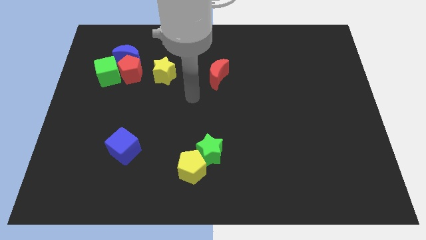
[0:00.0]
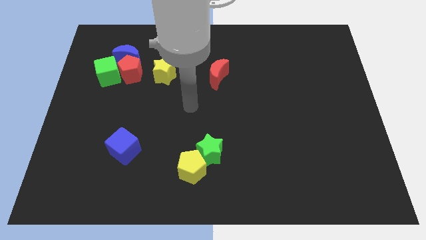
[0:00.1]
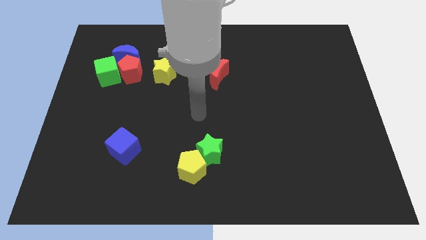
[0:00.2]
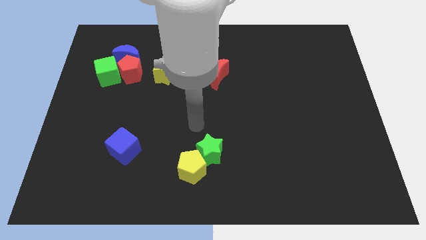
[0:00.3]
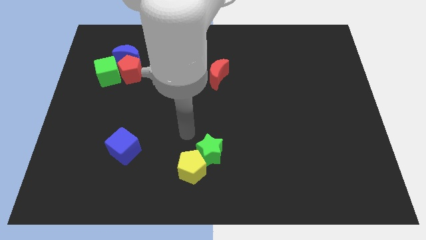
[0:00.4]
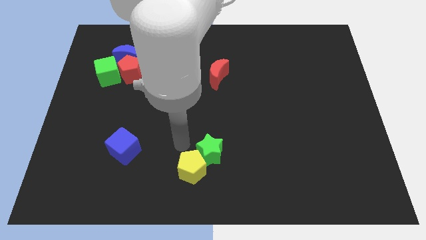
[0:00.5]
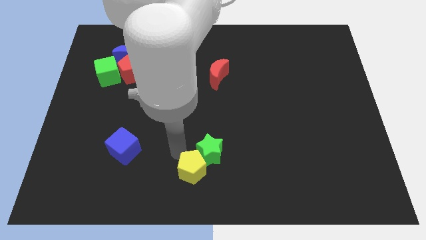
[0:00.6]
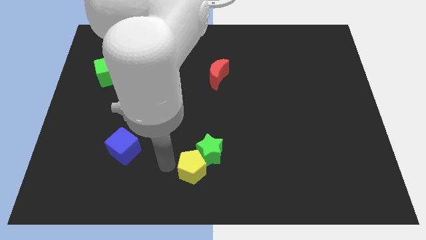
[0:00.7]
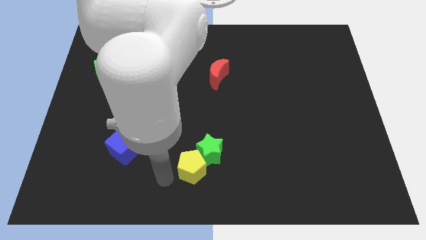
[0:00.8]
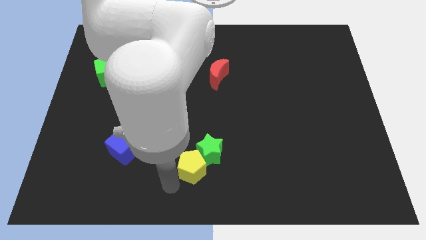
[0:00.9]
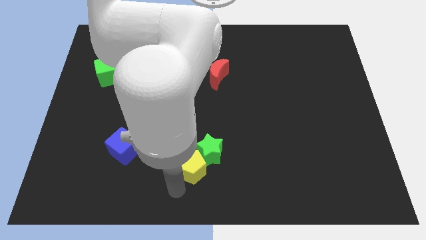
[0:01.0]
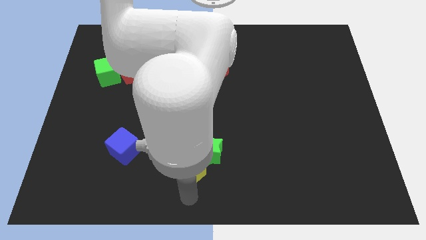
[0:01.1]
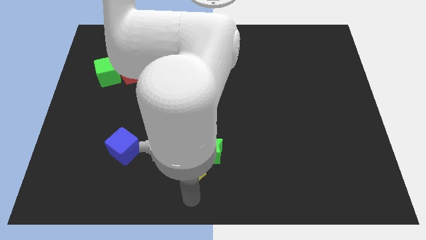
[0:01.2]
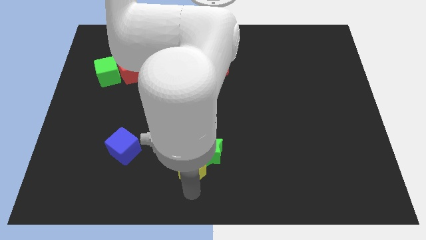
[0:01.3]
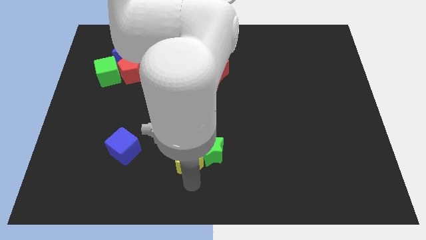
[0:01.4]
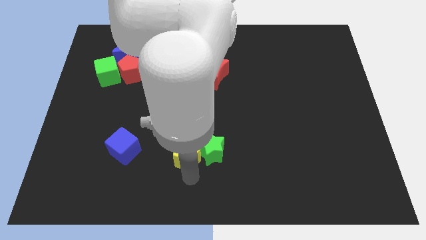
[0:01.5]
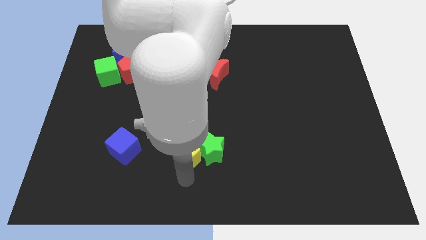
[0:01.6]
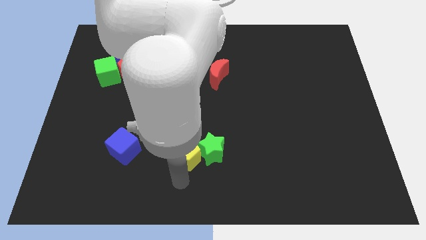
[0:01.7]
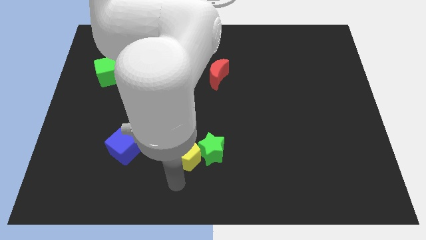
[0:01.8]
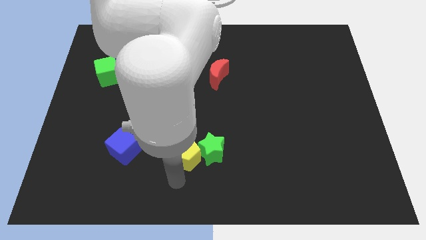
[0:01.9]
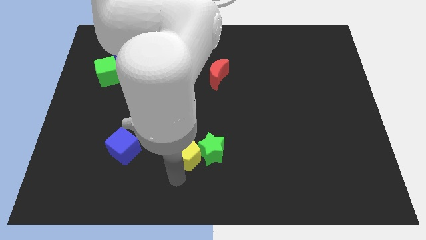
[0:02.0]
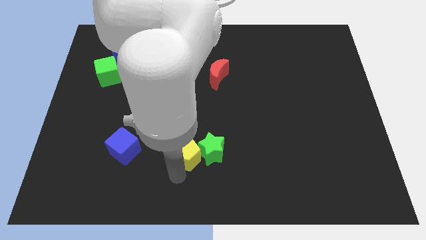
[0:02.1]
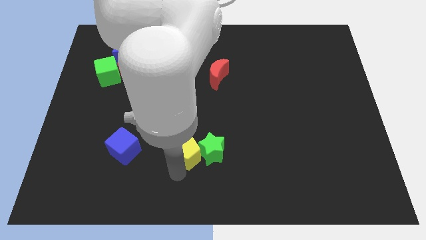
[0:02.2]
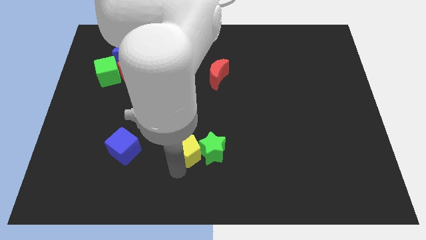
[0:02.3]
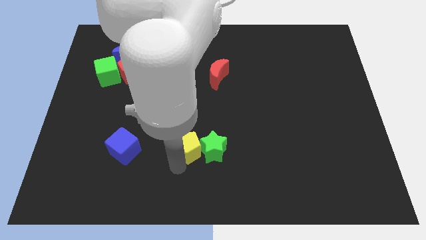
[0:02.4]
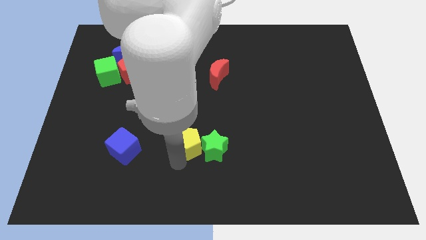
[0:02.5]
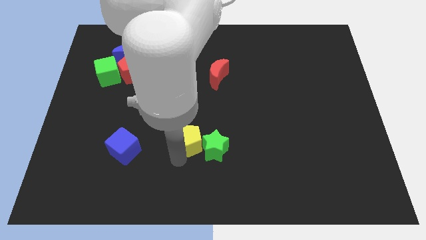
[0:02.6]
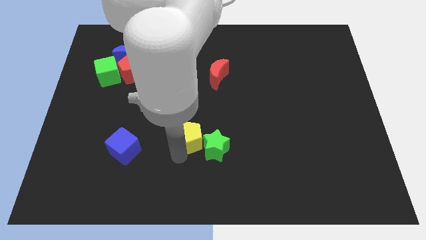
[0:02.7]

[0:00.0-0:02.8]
slightly move the yellow pentagon upwards

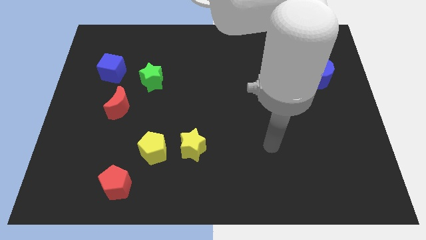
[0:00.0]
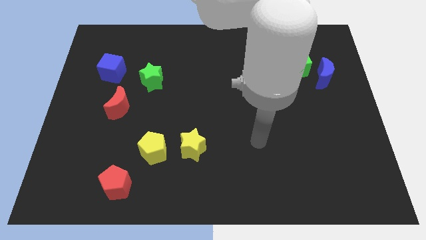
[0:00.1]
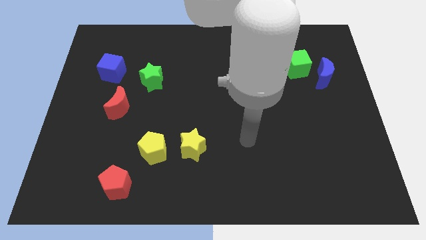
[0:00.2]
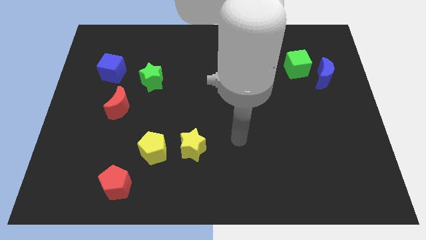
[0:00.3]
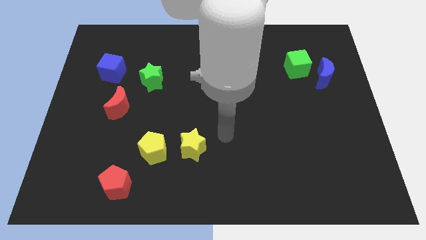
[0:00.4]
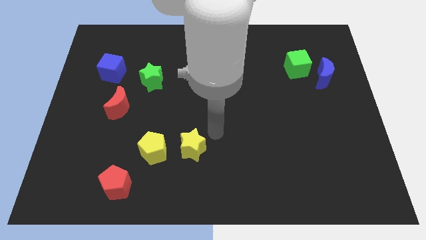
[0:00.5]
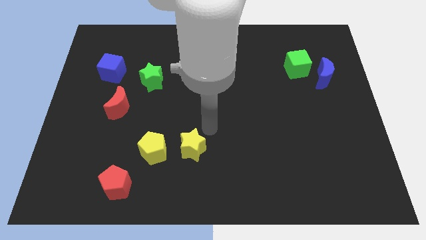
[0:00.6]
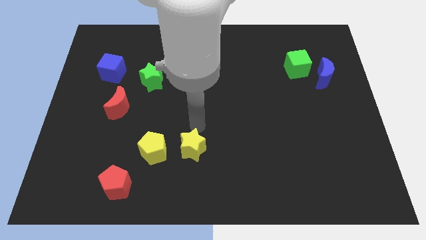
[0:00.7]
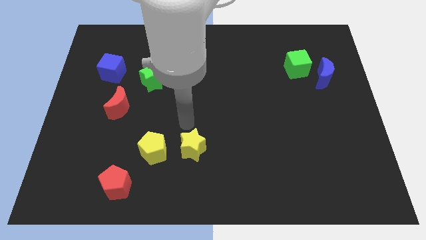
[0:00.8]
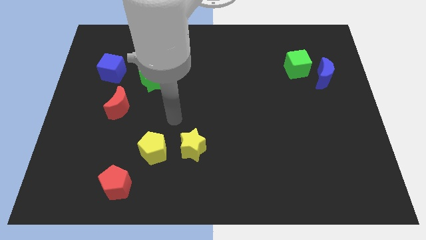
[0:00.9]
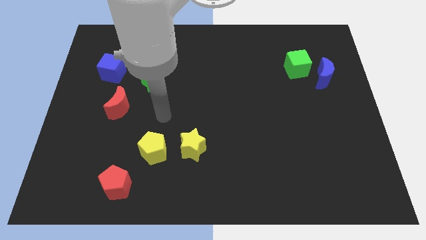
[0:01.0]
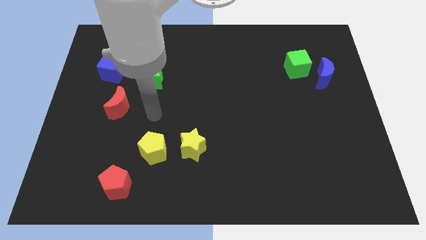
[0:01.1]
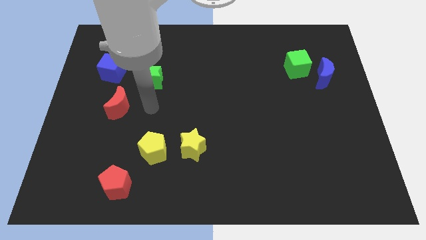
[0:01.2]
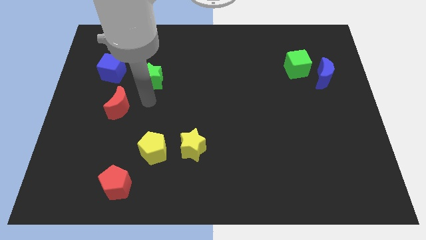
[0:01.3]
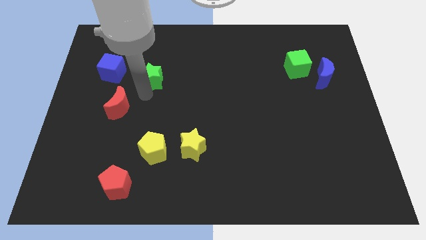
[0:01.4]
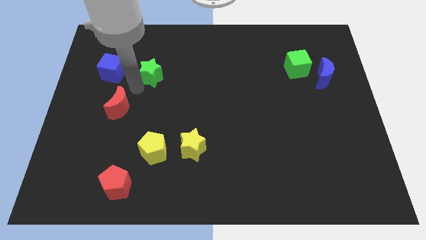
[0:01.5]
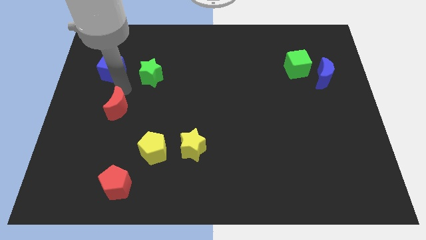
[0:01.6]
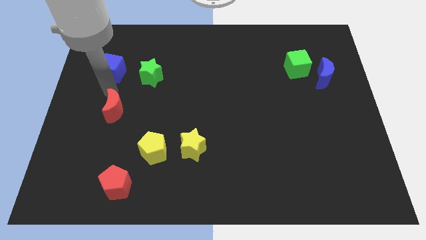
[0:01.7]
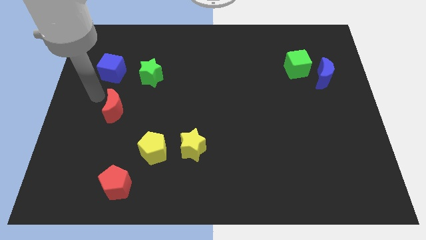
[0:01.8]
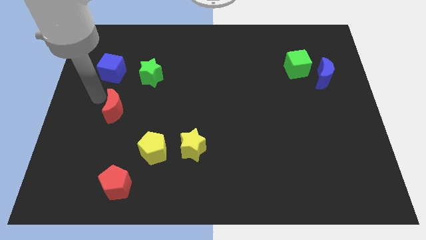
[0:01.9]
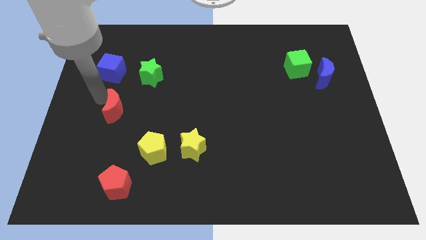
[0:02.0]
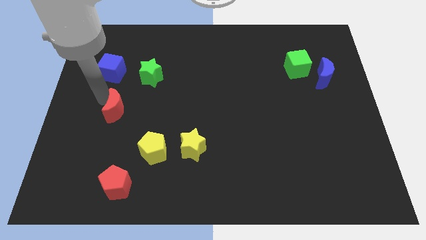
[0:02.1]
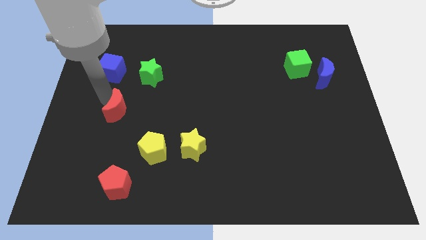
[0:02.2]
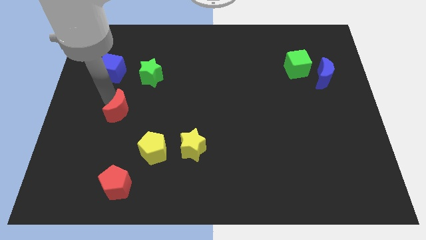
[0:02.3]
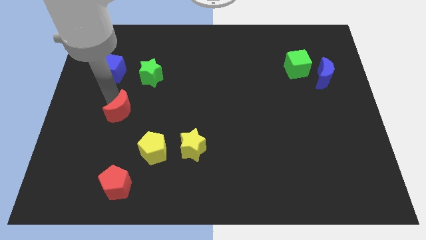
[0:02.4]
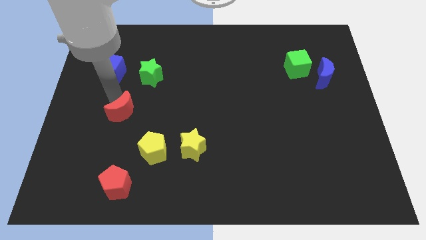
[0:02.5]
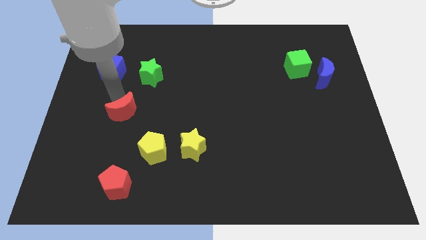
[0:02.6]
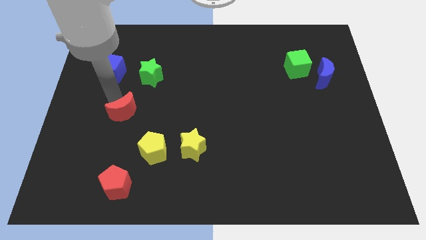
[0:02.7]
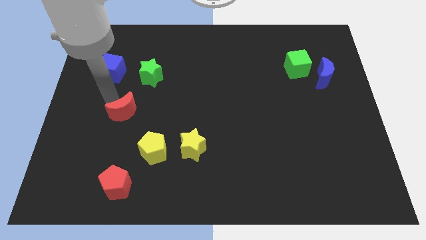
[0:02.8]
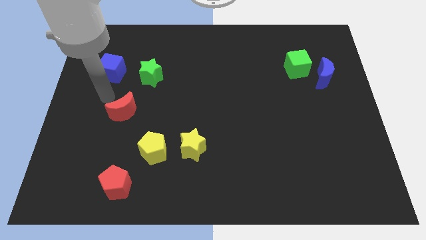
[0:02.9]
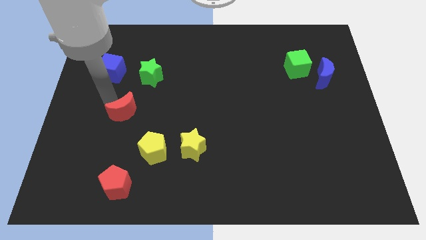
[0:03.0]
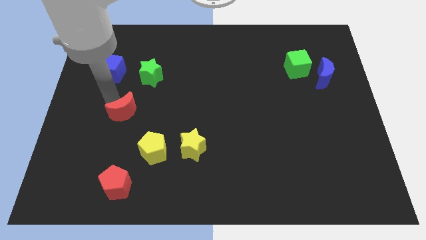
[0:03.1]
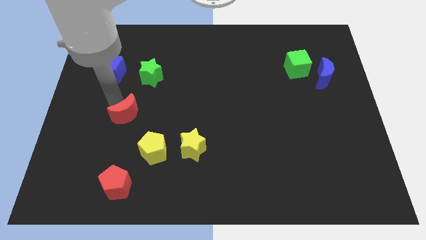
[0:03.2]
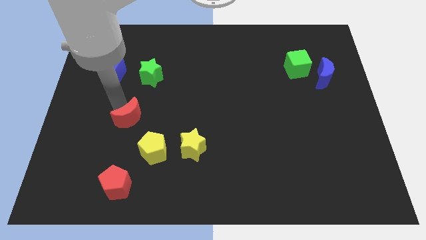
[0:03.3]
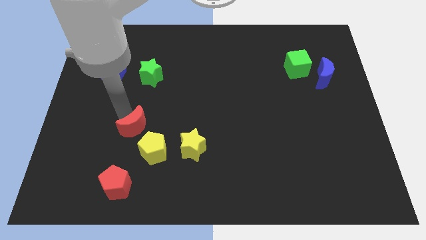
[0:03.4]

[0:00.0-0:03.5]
slightly move the red moon down and then right

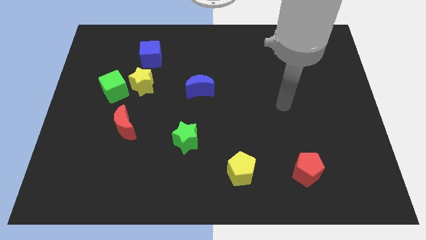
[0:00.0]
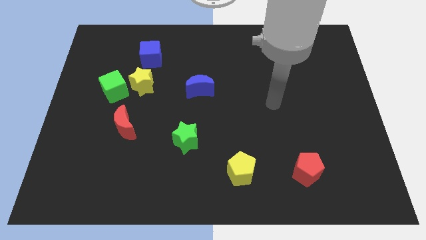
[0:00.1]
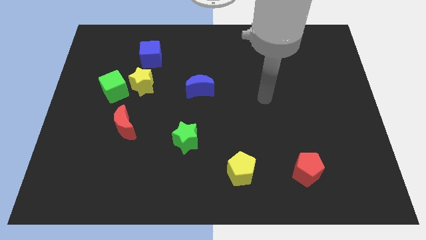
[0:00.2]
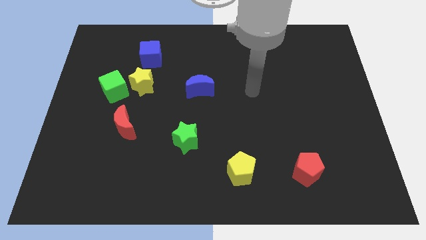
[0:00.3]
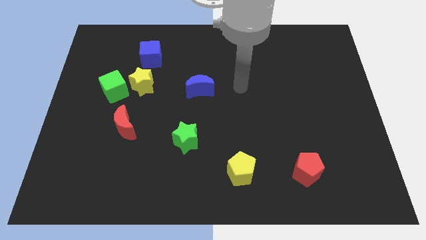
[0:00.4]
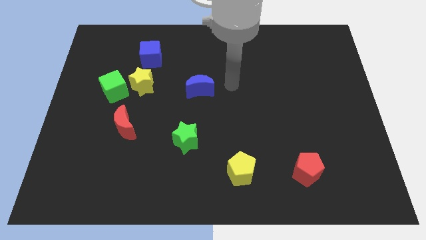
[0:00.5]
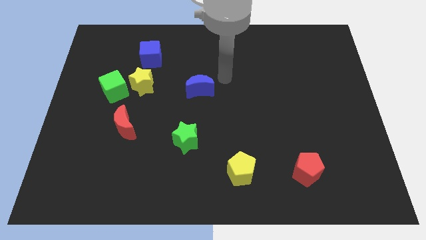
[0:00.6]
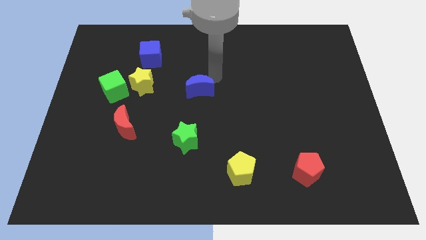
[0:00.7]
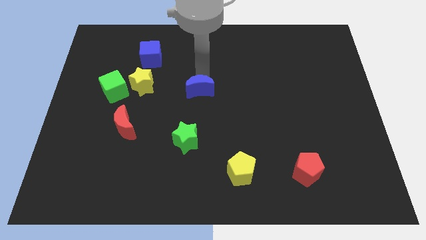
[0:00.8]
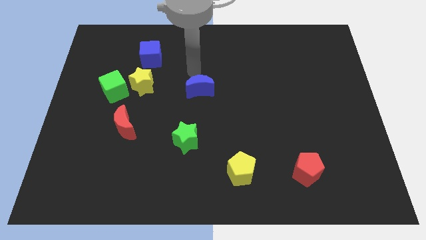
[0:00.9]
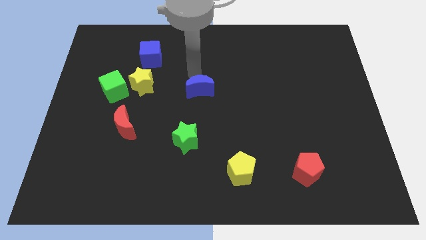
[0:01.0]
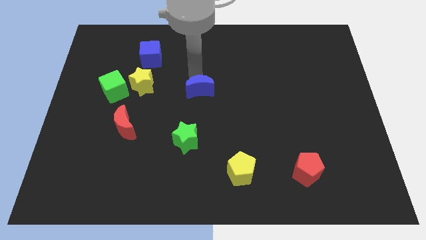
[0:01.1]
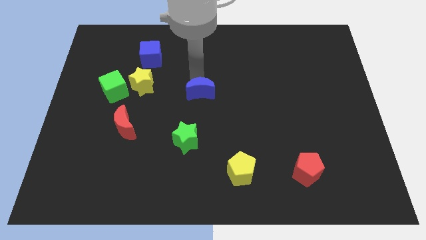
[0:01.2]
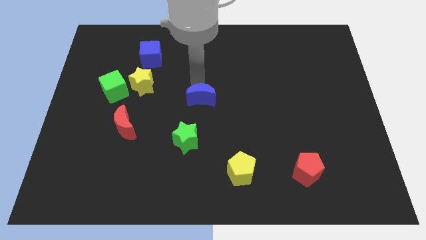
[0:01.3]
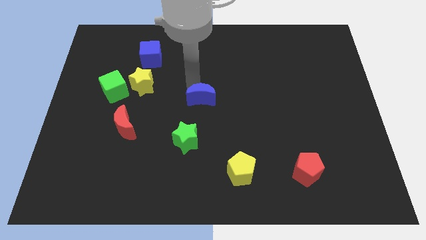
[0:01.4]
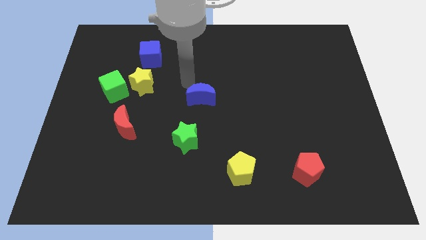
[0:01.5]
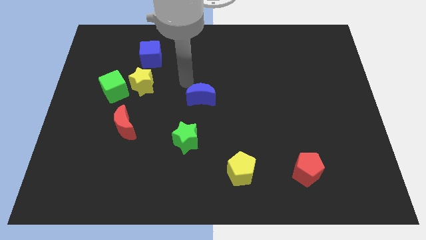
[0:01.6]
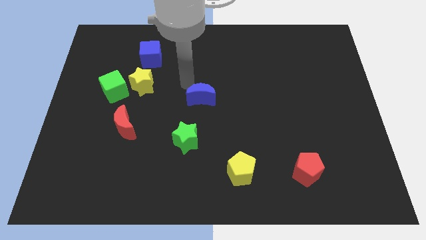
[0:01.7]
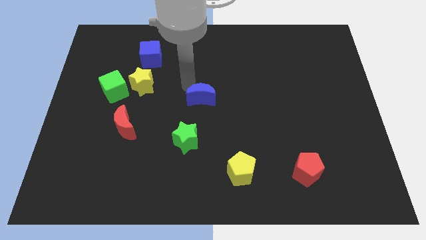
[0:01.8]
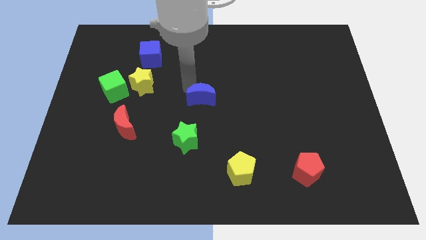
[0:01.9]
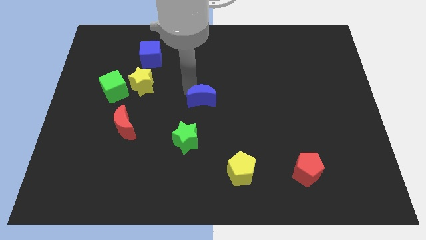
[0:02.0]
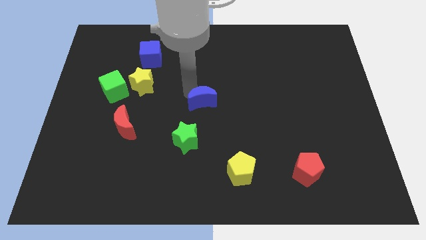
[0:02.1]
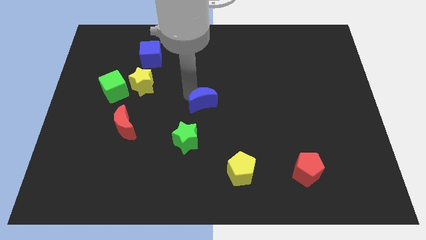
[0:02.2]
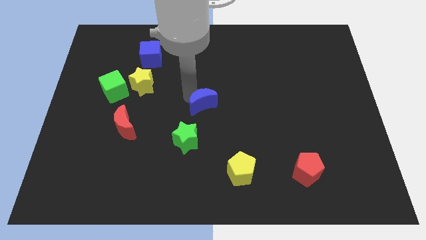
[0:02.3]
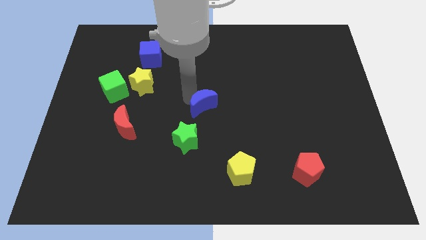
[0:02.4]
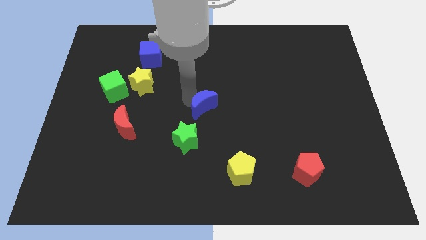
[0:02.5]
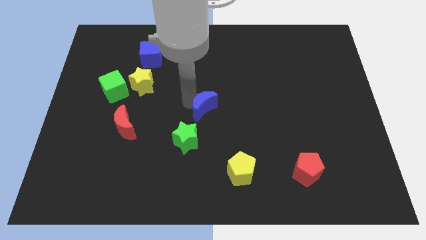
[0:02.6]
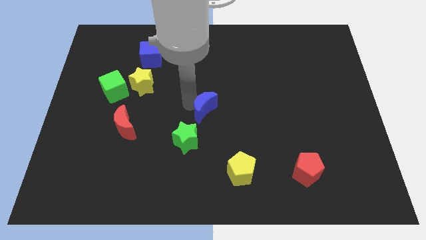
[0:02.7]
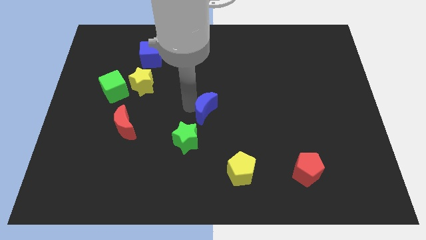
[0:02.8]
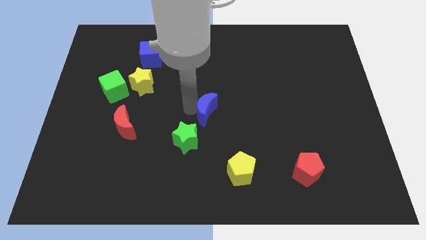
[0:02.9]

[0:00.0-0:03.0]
slightly push the blue moon downwards
